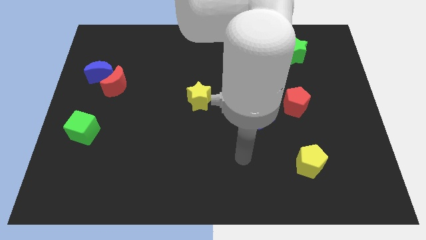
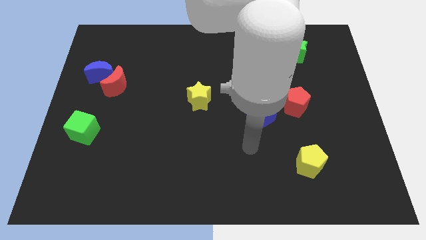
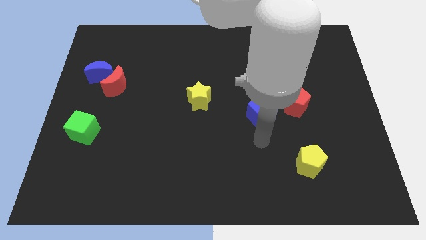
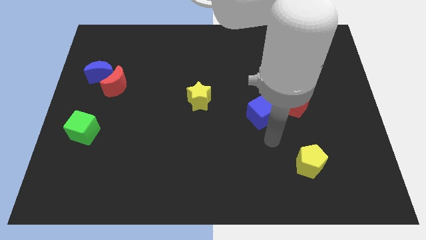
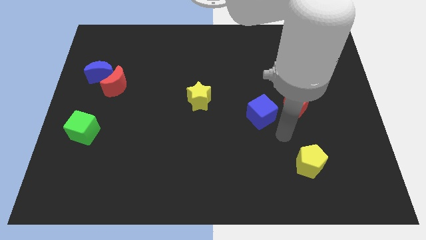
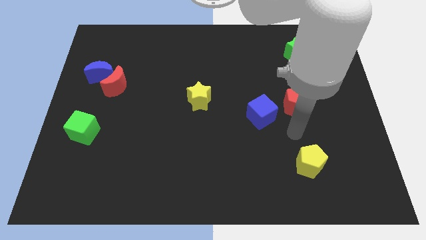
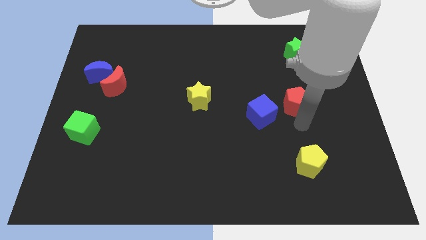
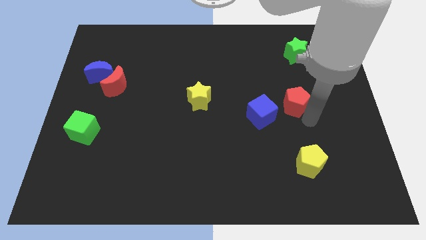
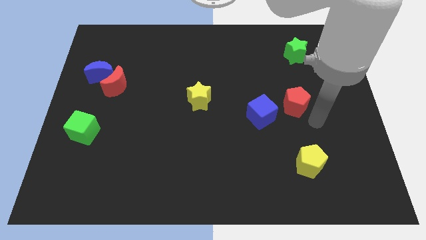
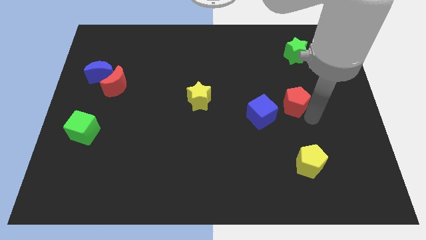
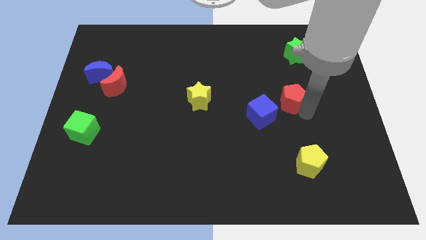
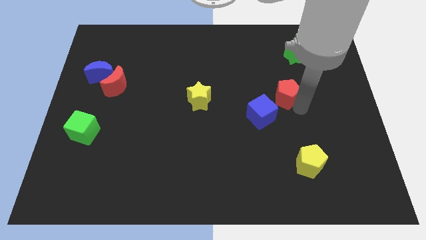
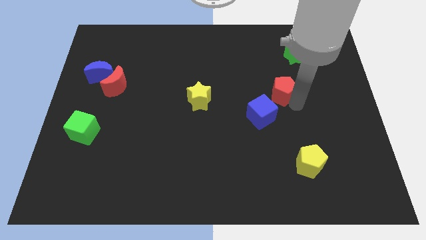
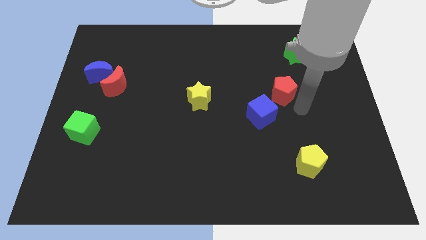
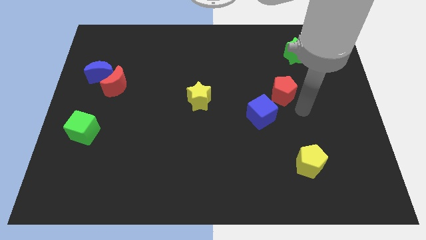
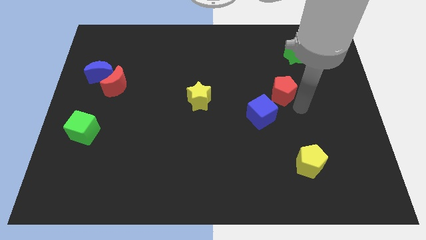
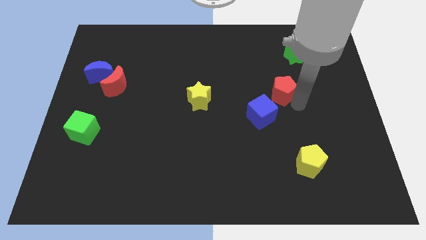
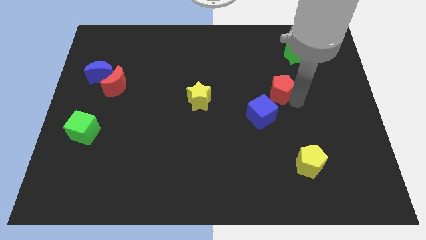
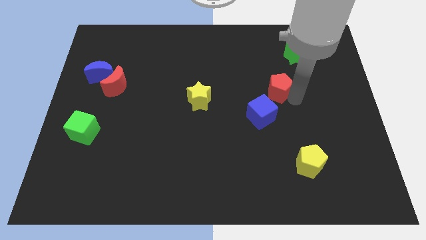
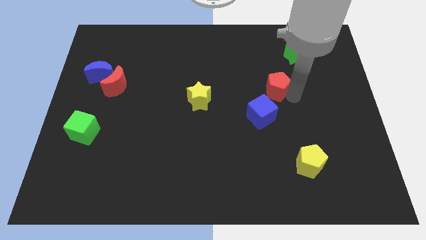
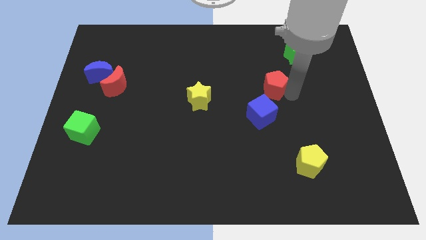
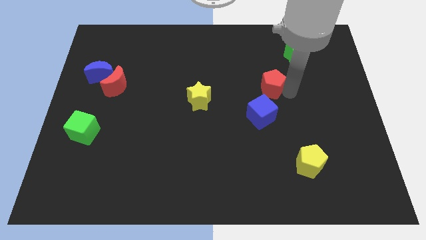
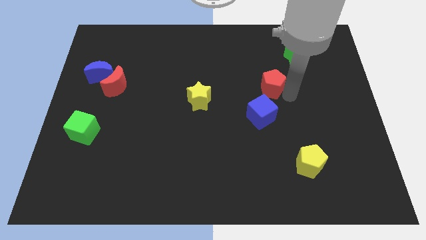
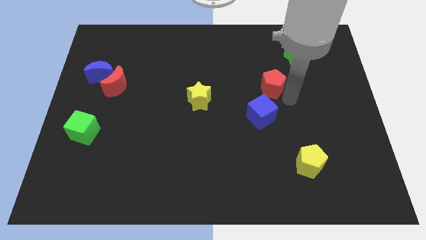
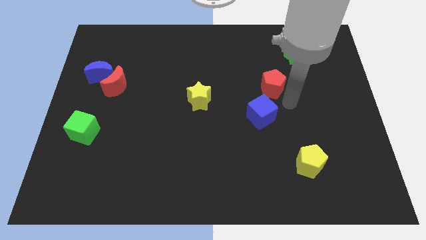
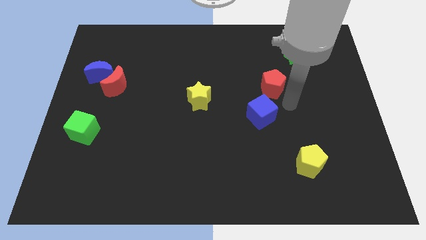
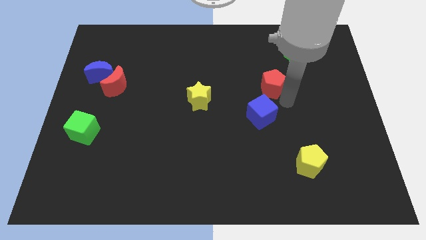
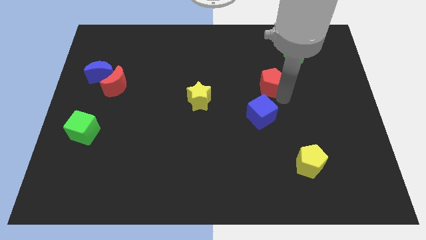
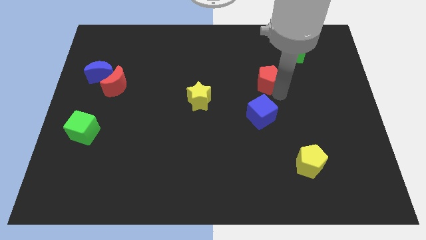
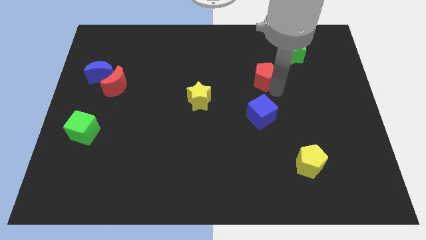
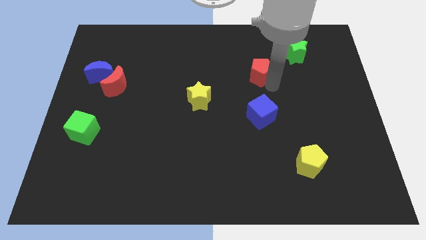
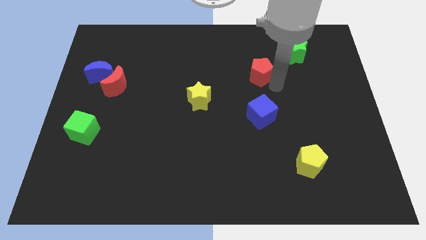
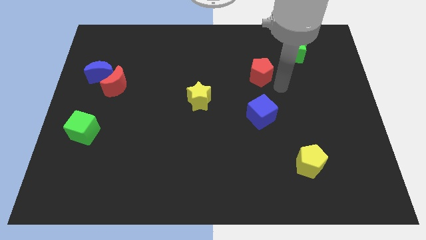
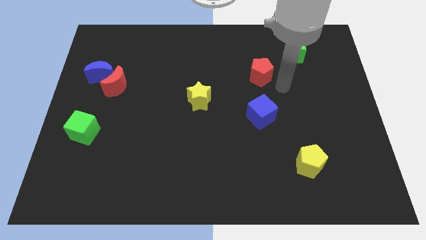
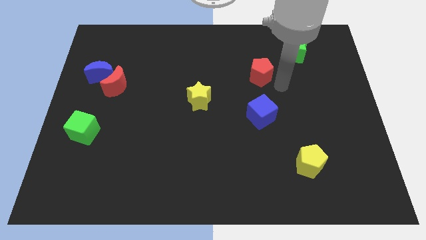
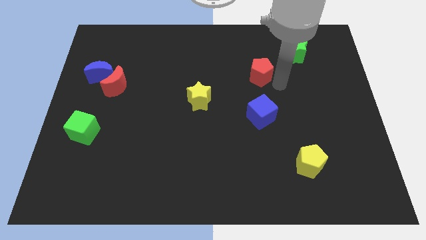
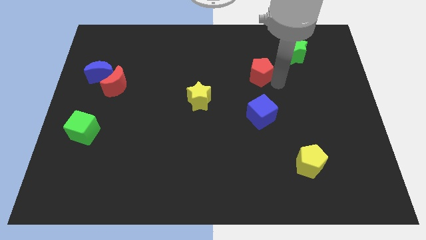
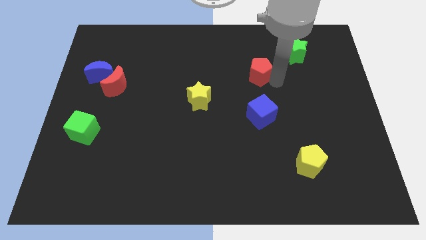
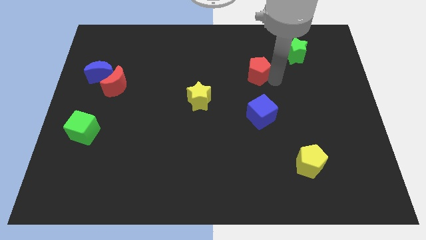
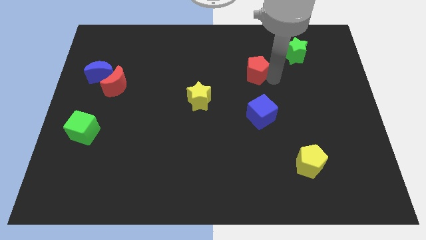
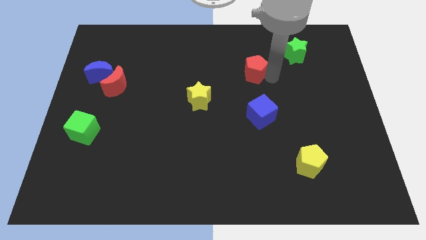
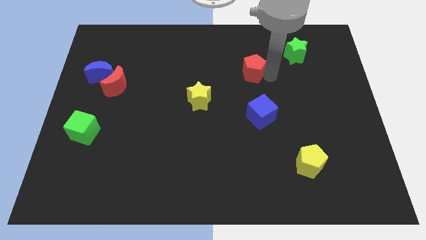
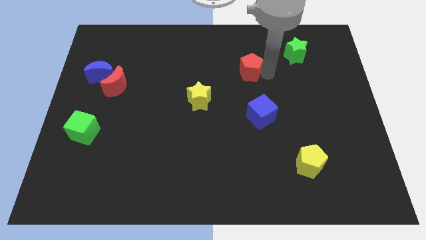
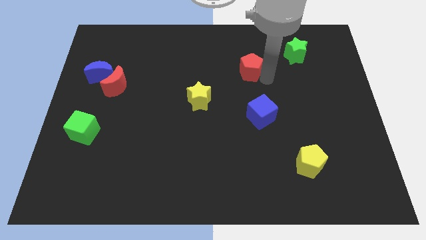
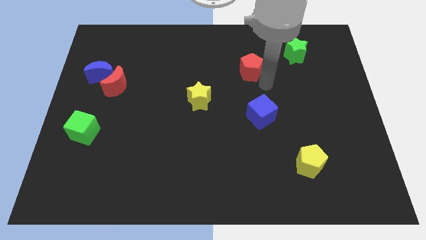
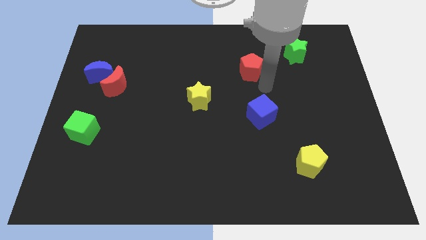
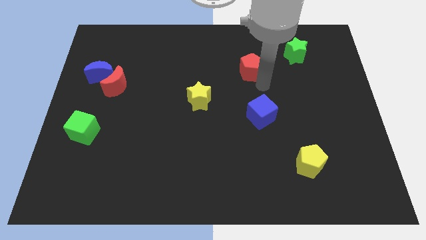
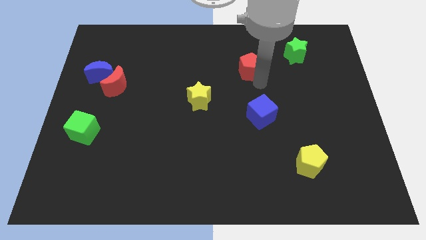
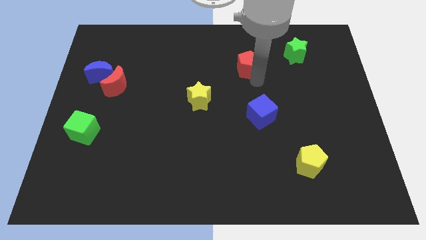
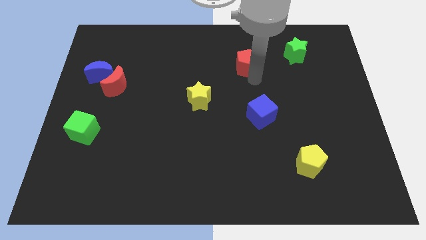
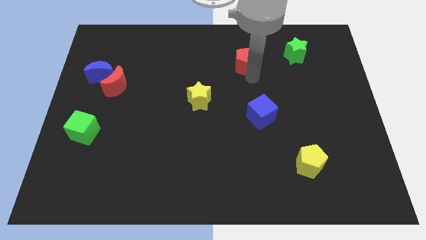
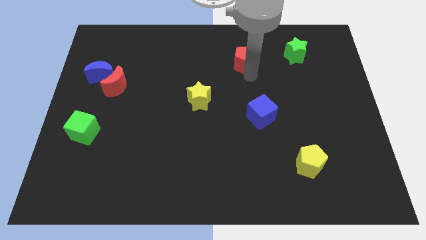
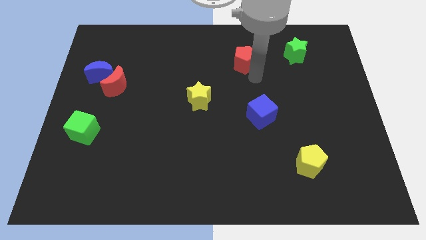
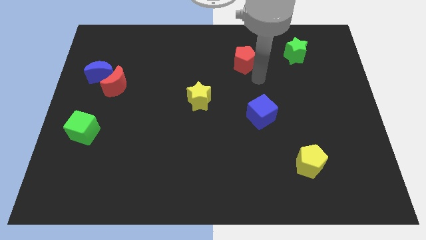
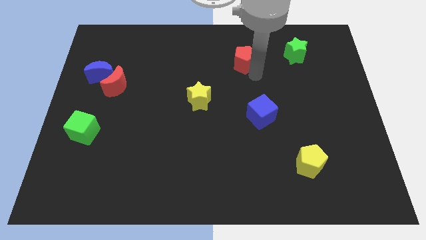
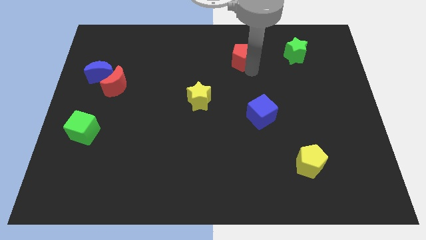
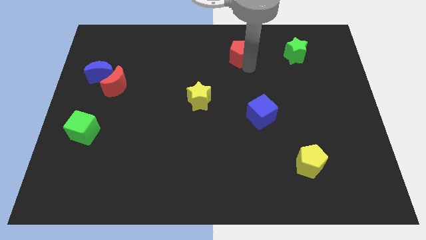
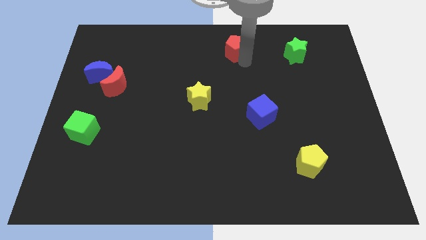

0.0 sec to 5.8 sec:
push the red pentagon to the towards your base

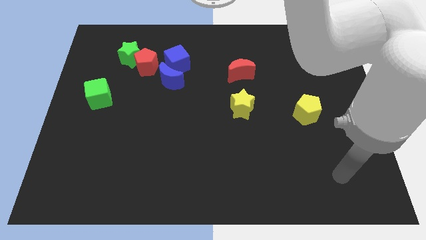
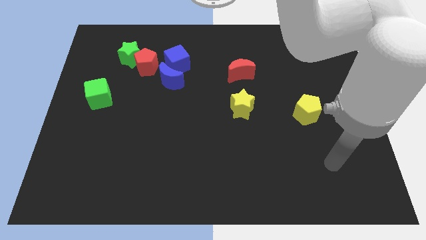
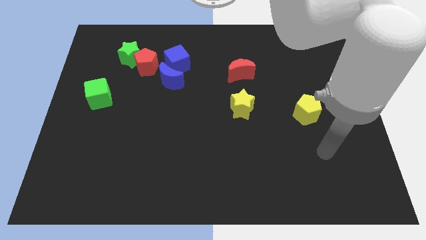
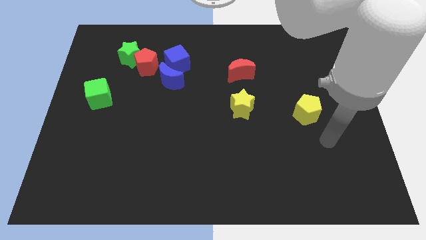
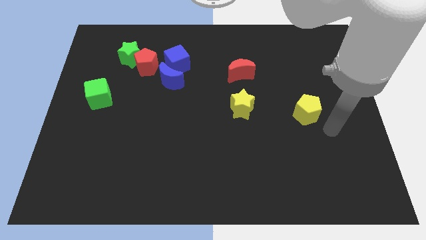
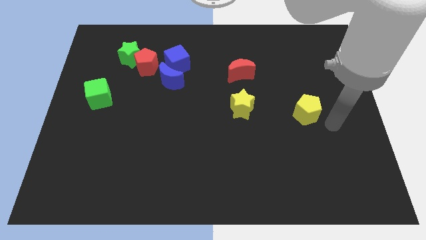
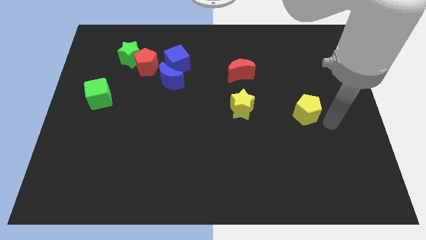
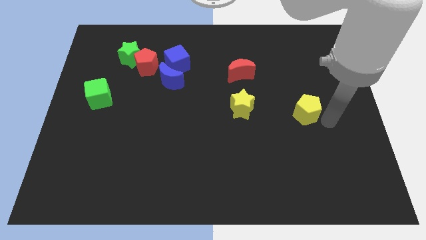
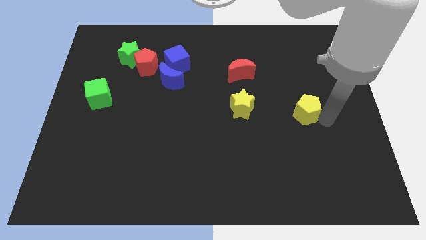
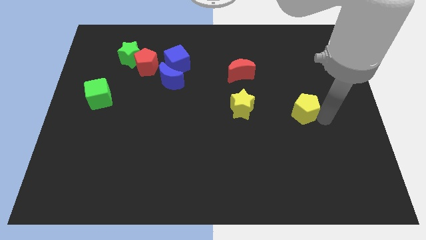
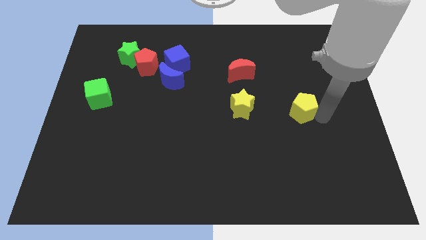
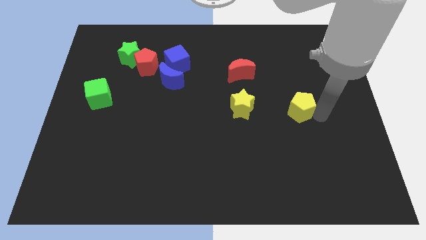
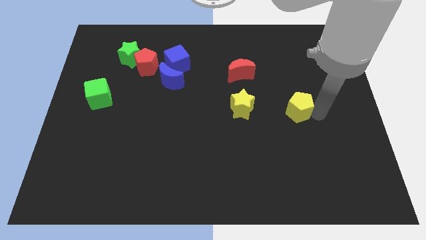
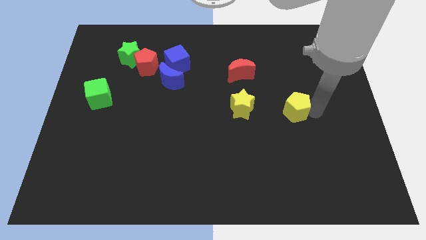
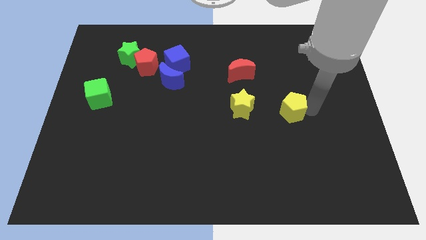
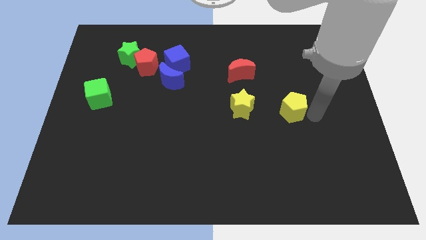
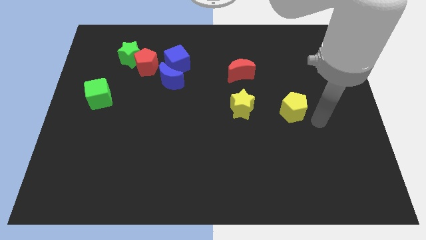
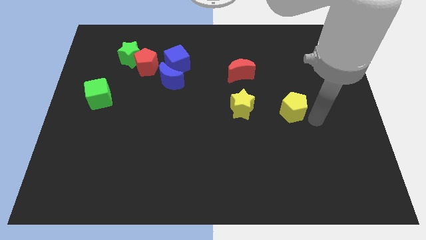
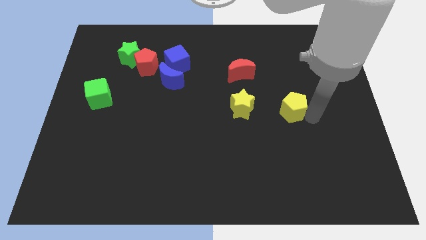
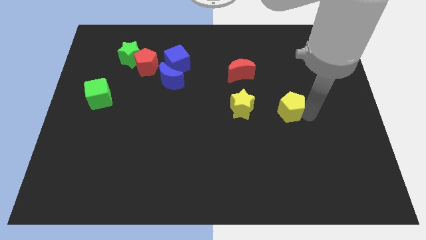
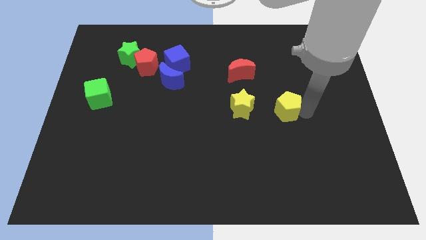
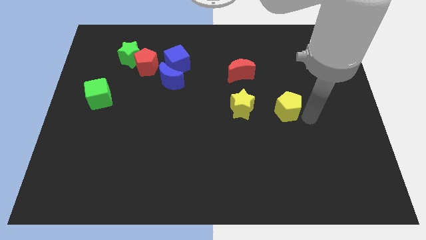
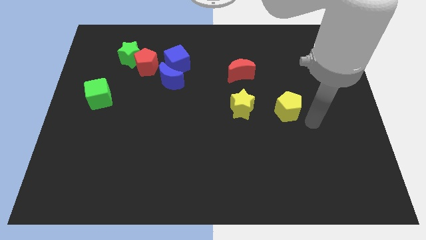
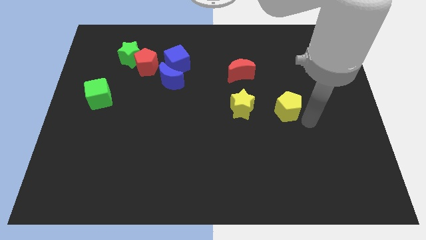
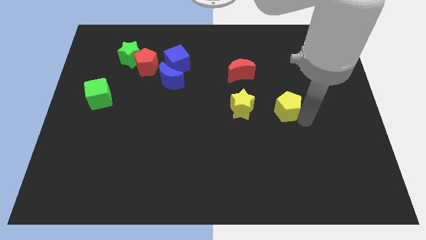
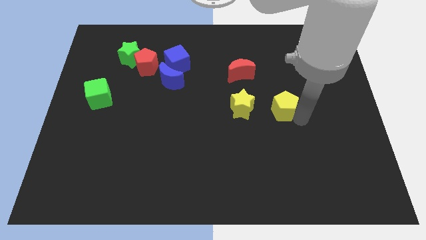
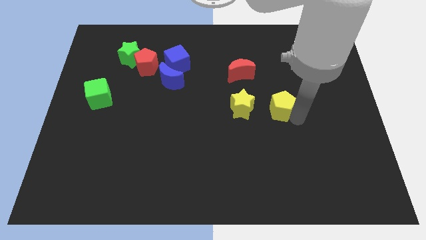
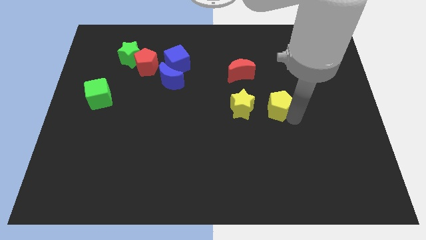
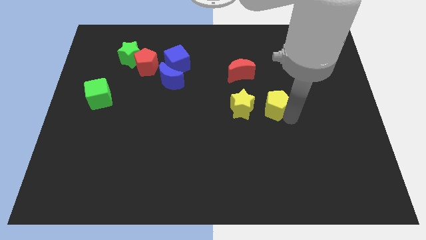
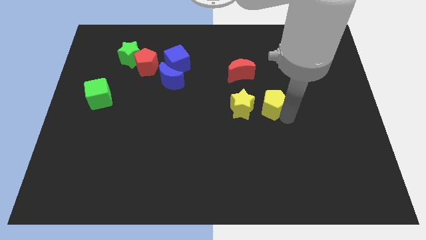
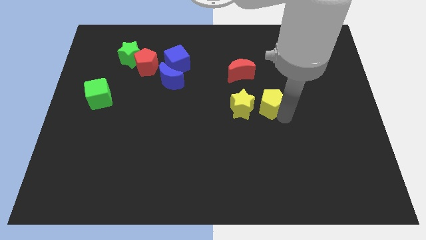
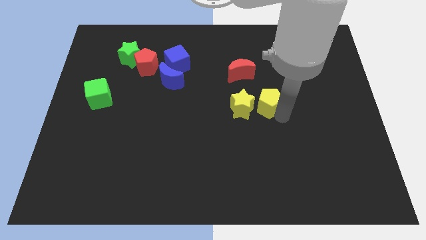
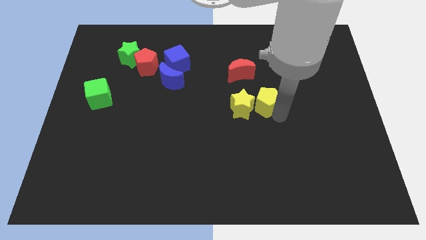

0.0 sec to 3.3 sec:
move the yellow pentagon to the center
